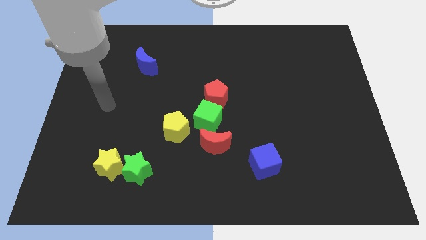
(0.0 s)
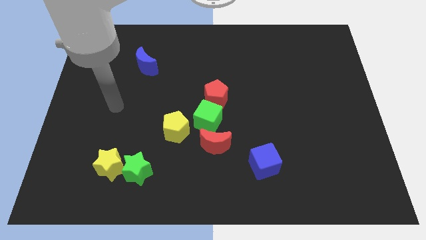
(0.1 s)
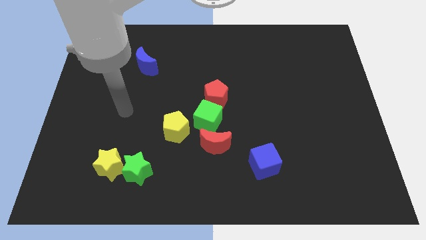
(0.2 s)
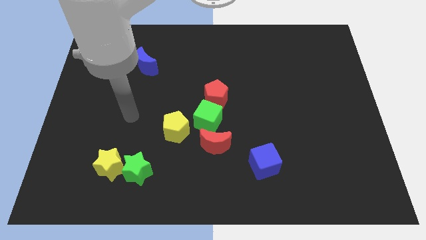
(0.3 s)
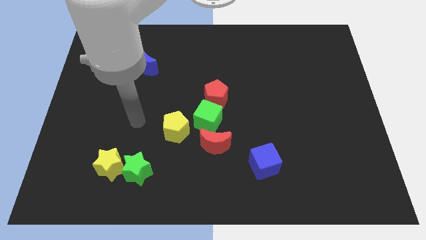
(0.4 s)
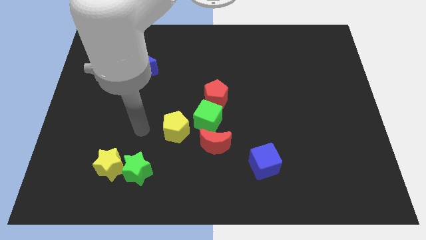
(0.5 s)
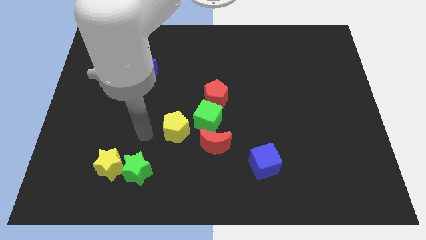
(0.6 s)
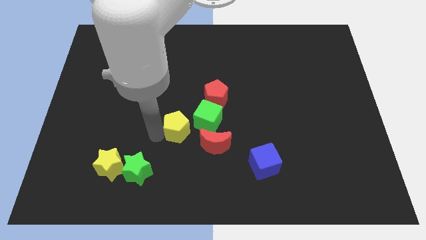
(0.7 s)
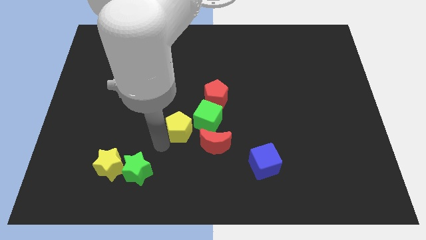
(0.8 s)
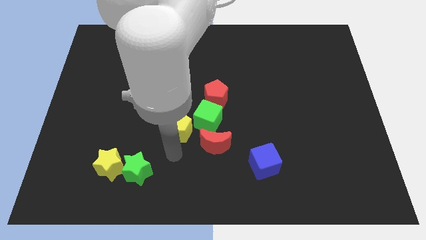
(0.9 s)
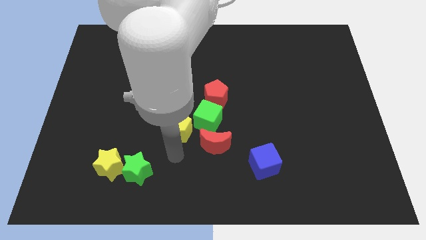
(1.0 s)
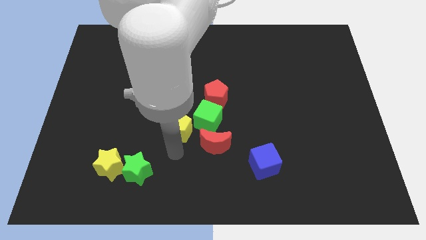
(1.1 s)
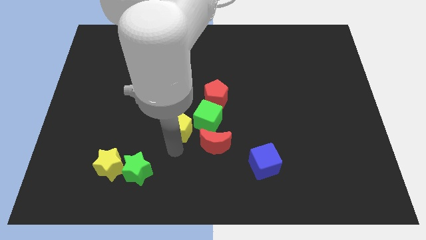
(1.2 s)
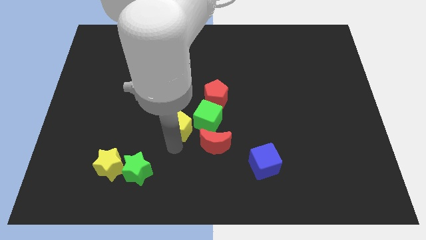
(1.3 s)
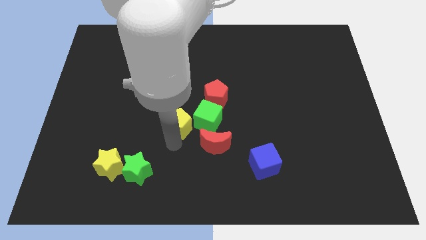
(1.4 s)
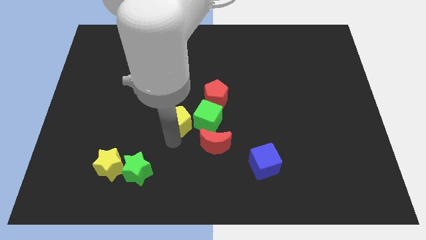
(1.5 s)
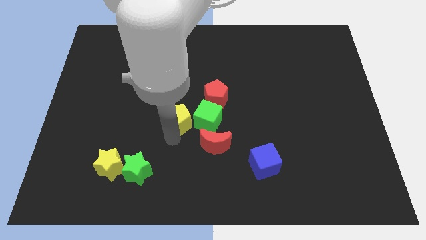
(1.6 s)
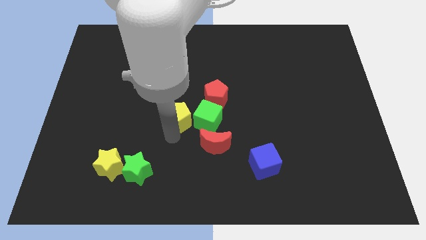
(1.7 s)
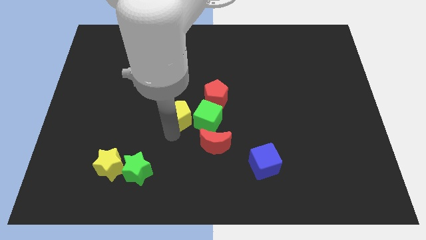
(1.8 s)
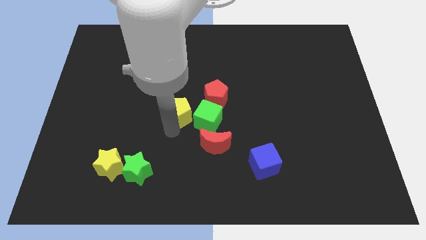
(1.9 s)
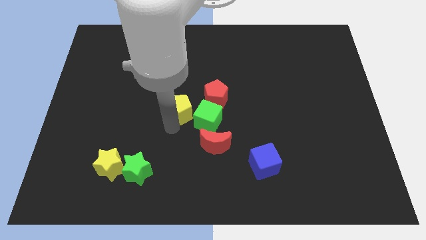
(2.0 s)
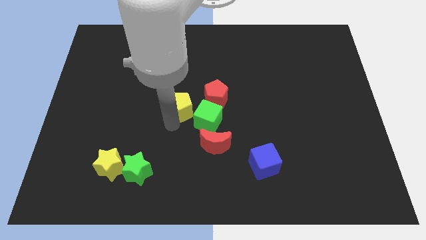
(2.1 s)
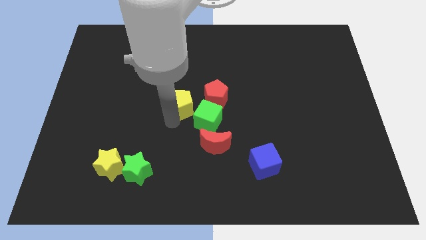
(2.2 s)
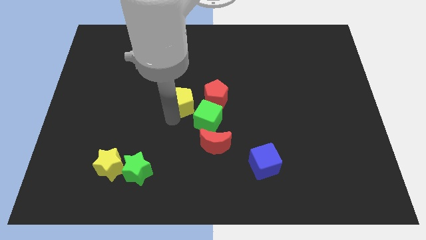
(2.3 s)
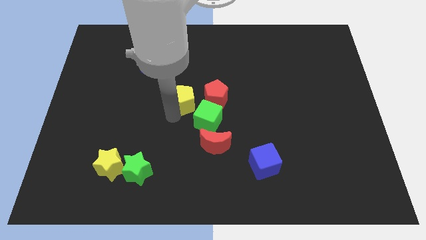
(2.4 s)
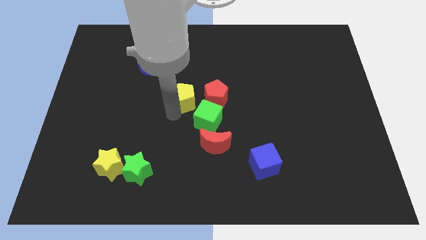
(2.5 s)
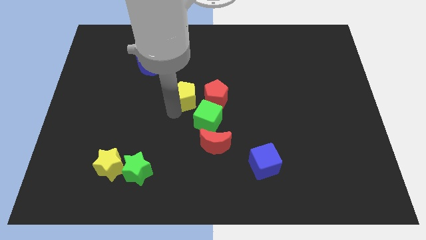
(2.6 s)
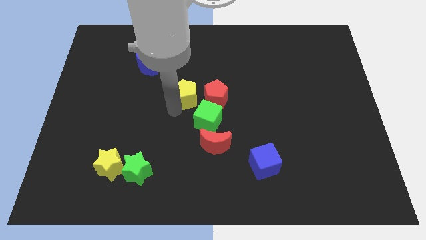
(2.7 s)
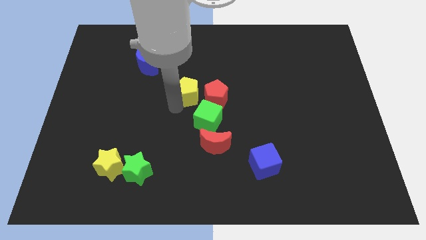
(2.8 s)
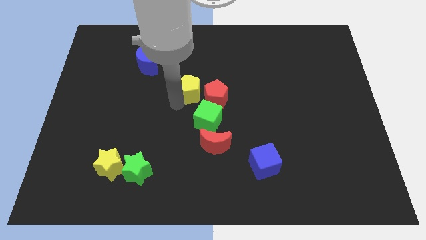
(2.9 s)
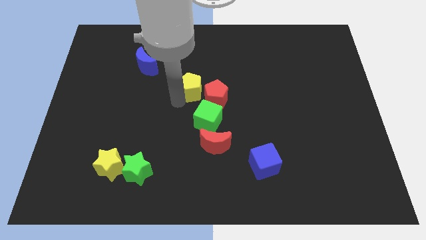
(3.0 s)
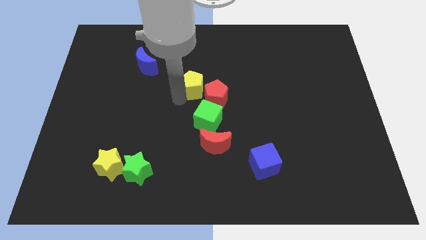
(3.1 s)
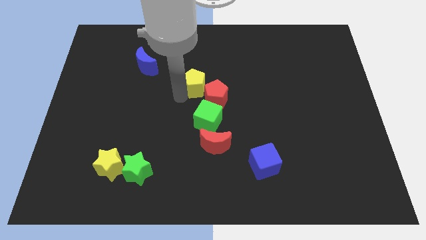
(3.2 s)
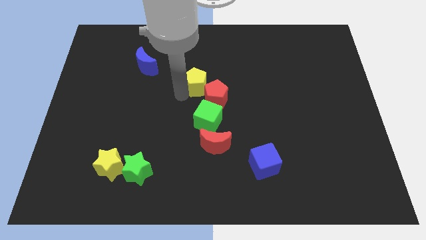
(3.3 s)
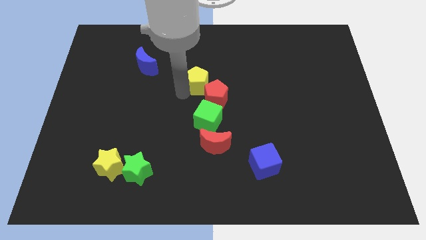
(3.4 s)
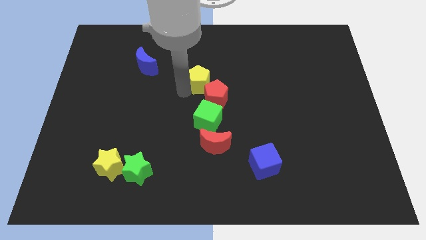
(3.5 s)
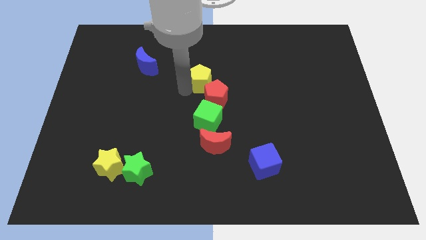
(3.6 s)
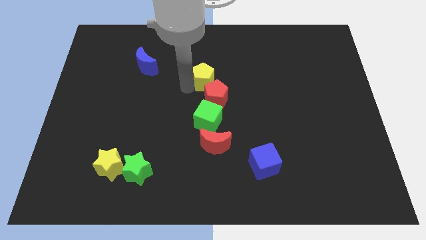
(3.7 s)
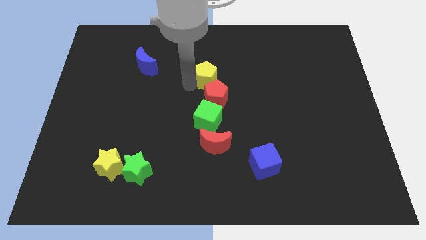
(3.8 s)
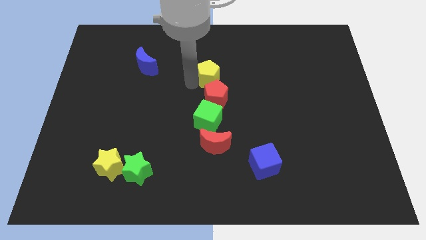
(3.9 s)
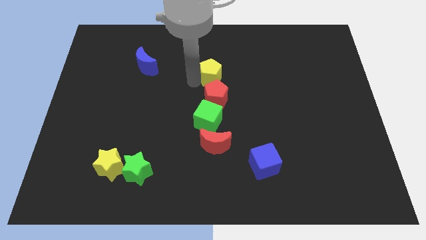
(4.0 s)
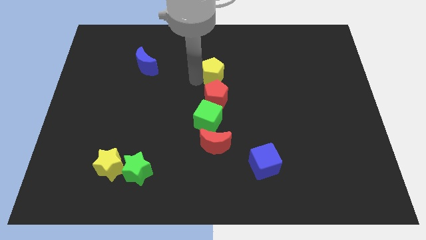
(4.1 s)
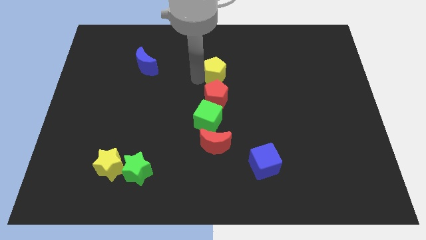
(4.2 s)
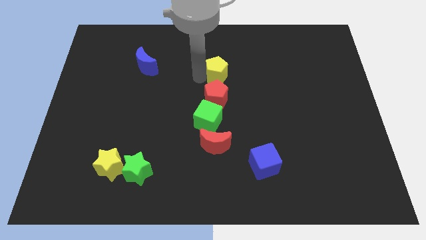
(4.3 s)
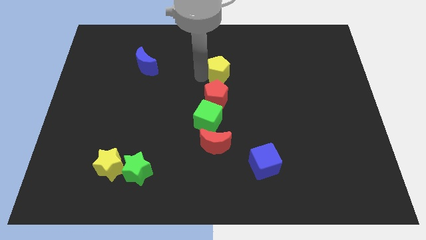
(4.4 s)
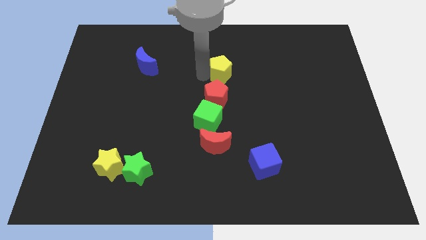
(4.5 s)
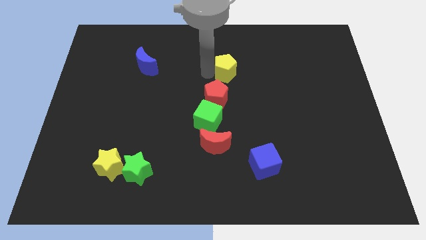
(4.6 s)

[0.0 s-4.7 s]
slide the yellow pentagon up and then right

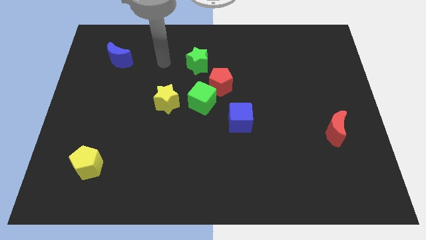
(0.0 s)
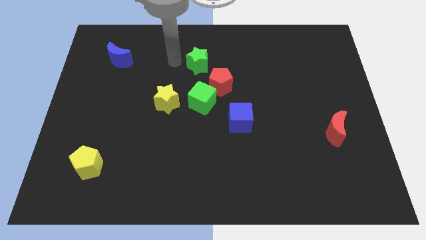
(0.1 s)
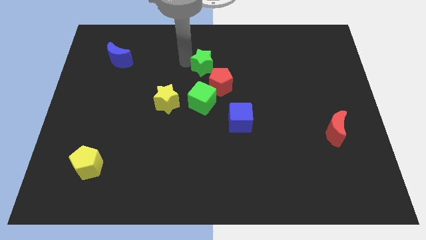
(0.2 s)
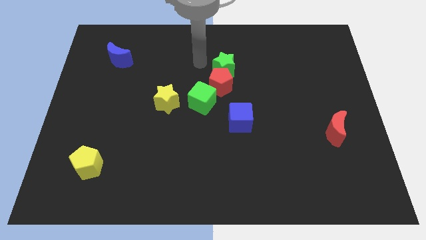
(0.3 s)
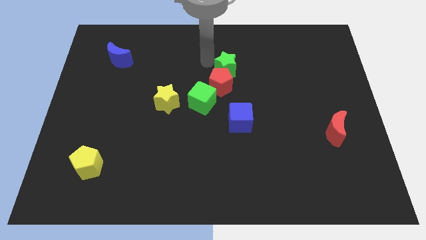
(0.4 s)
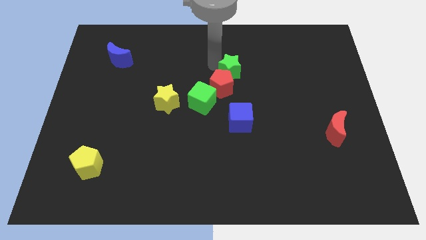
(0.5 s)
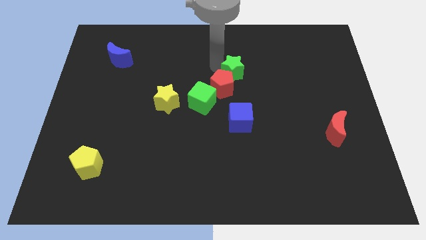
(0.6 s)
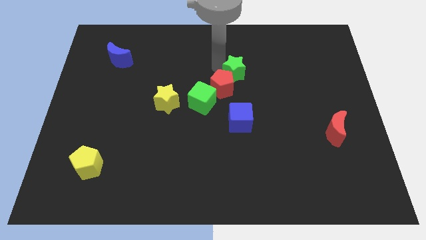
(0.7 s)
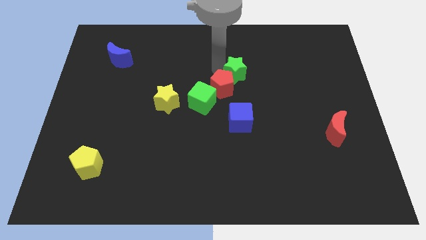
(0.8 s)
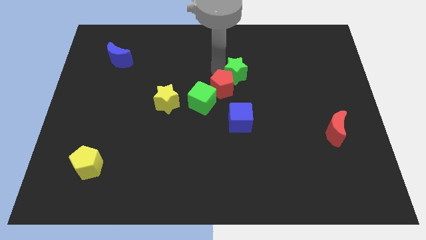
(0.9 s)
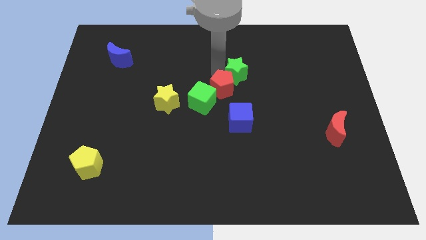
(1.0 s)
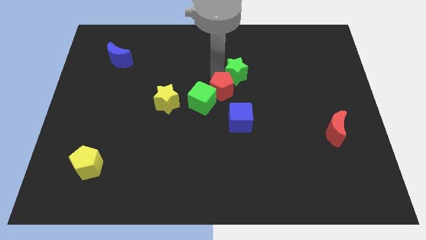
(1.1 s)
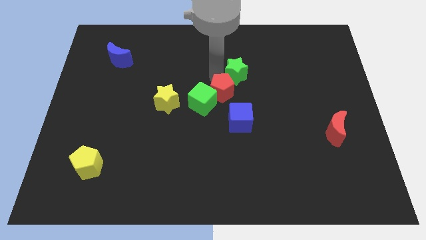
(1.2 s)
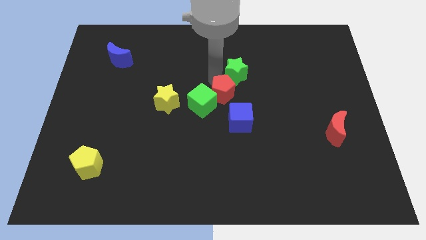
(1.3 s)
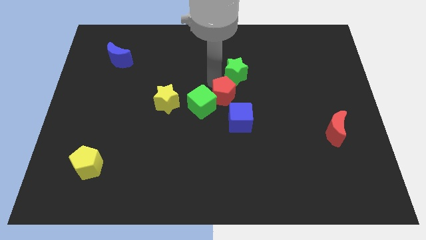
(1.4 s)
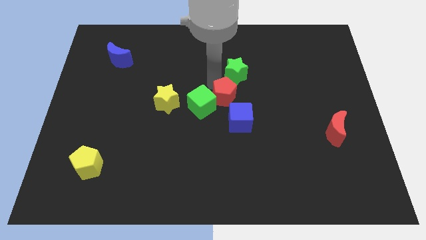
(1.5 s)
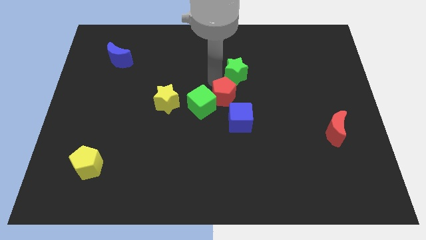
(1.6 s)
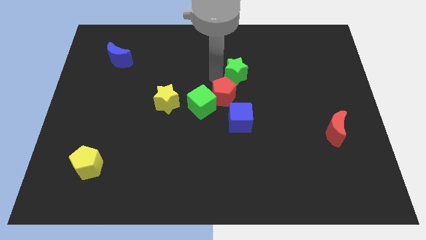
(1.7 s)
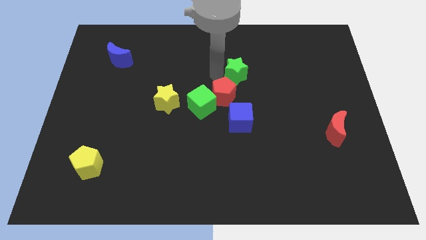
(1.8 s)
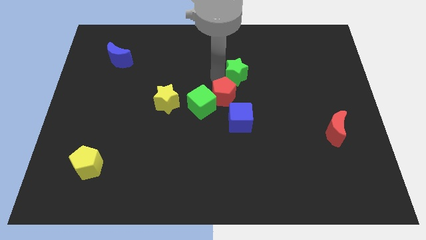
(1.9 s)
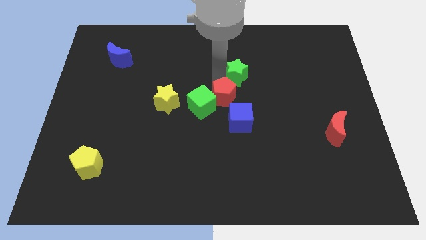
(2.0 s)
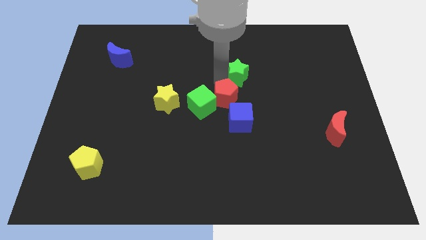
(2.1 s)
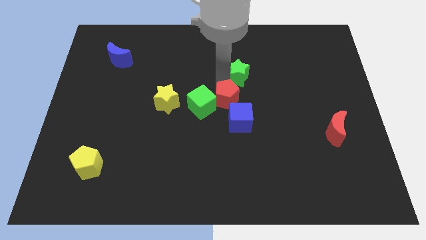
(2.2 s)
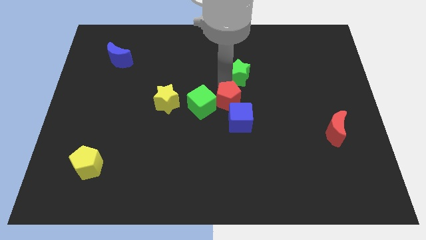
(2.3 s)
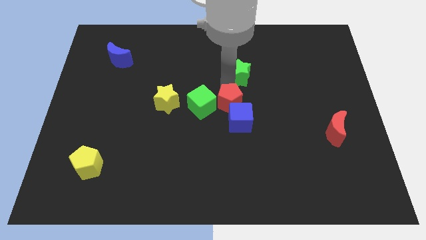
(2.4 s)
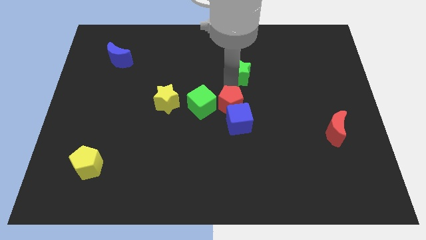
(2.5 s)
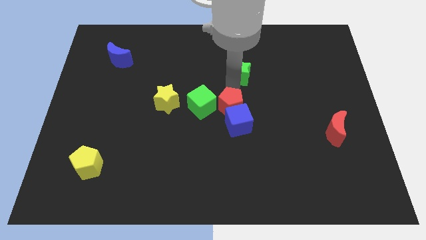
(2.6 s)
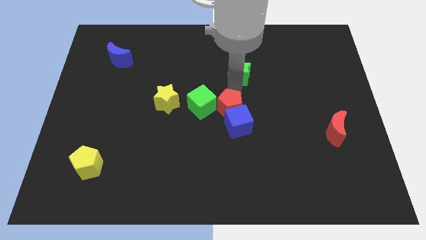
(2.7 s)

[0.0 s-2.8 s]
slightly push the red pentagon downwards

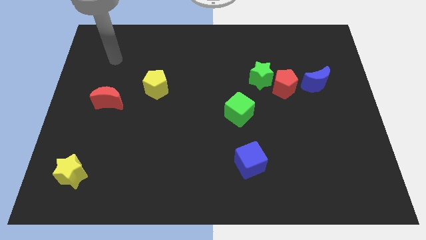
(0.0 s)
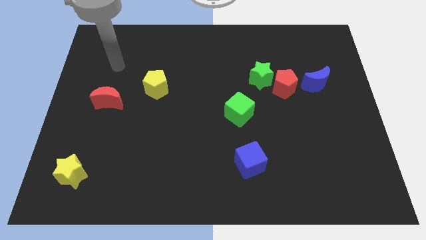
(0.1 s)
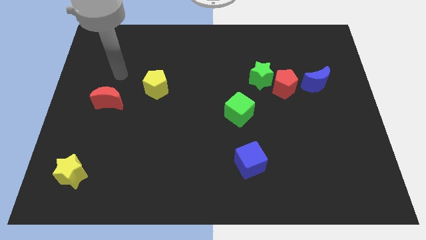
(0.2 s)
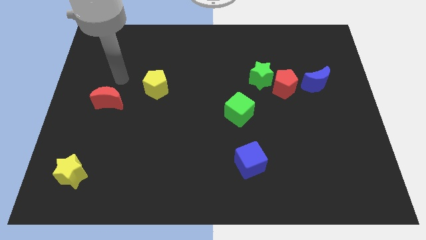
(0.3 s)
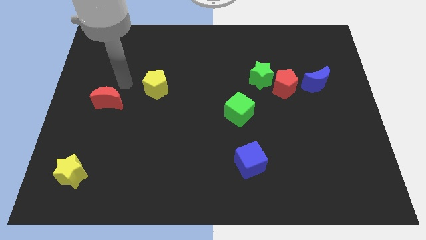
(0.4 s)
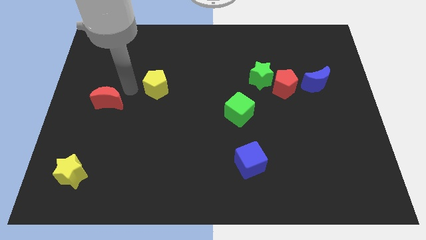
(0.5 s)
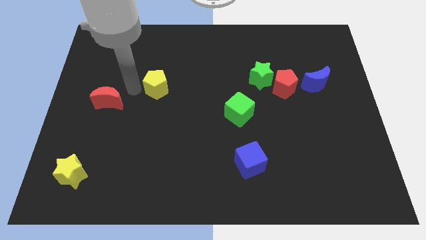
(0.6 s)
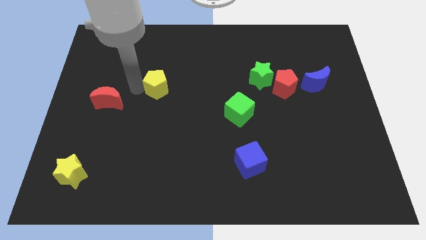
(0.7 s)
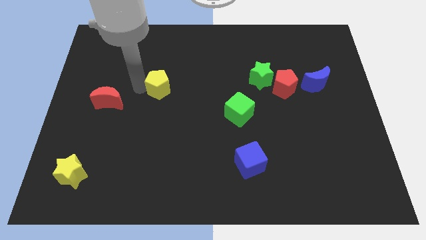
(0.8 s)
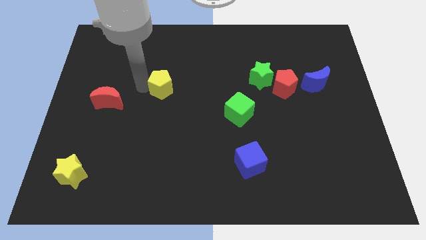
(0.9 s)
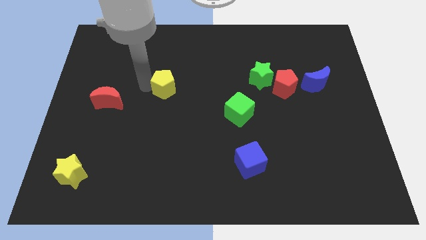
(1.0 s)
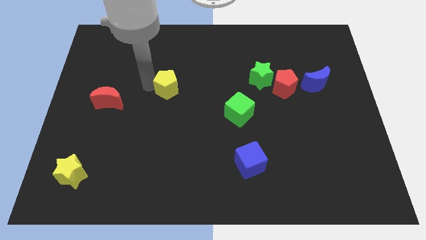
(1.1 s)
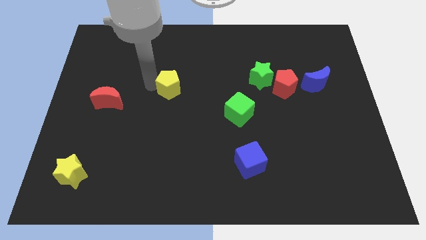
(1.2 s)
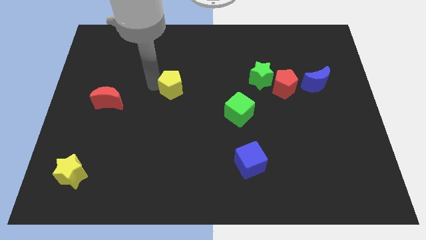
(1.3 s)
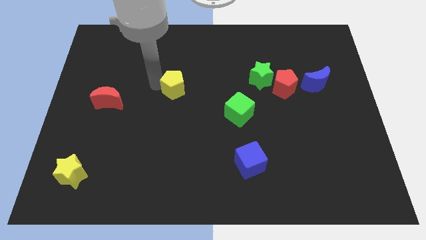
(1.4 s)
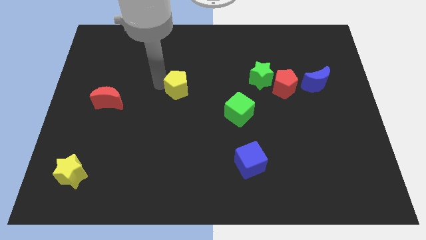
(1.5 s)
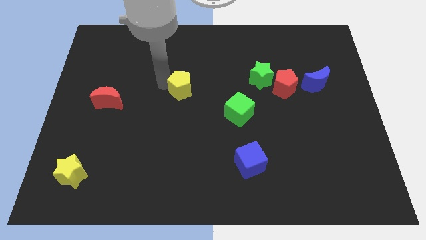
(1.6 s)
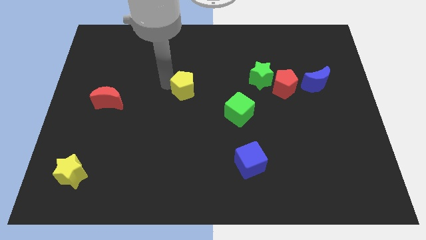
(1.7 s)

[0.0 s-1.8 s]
slide the yellow pentagon right a little bit
